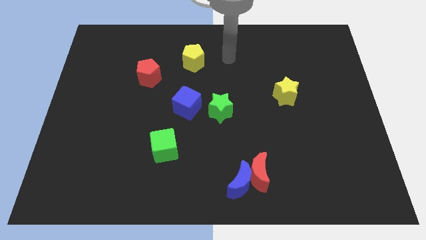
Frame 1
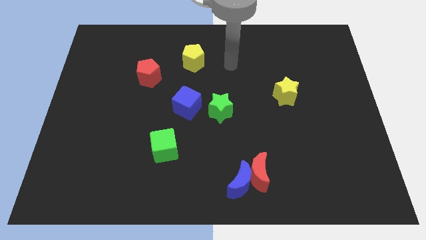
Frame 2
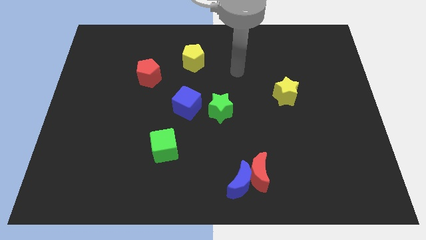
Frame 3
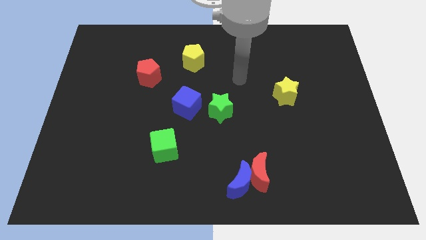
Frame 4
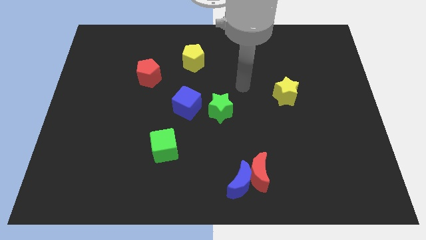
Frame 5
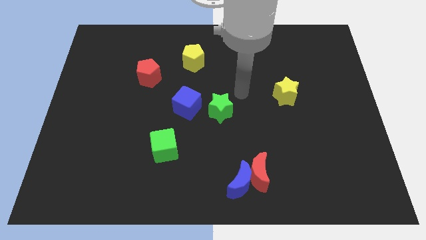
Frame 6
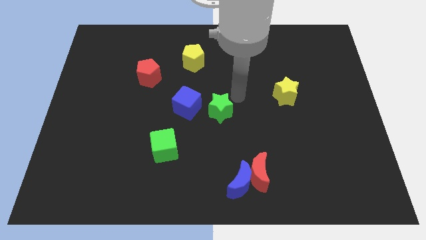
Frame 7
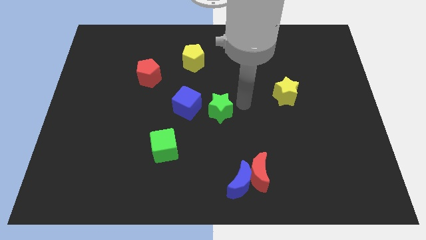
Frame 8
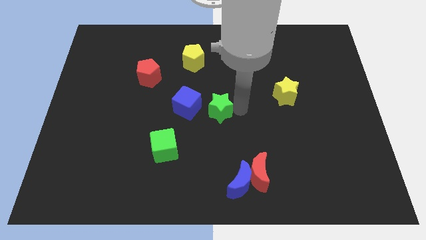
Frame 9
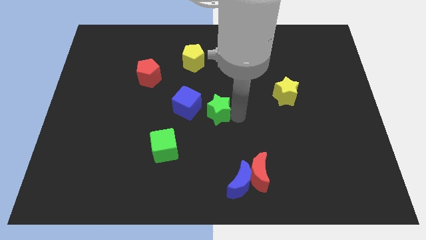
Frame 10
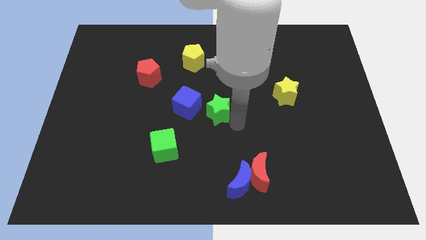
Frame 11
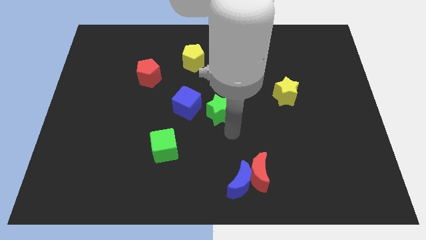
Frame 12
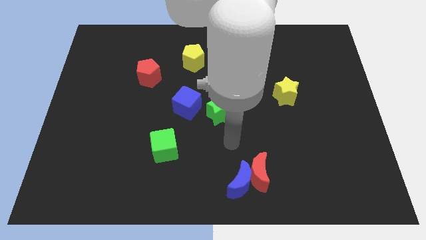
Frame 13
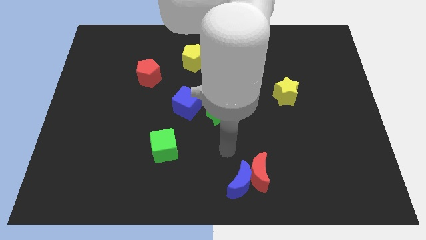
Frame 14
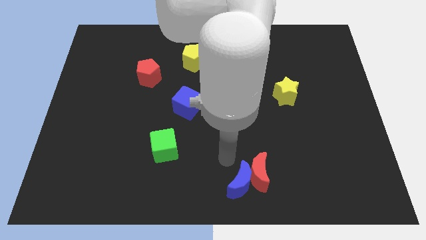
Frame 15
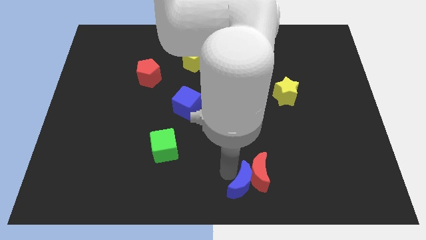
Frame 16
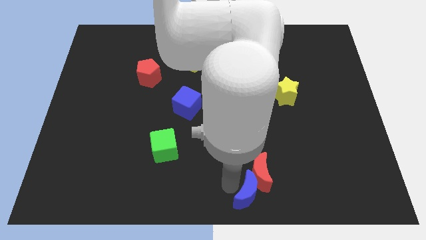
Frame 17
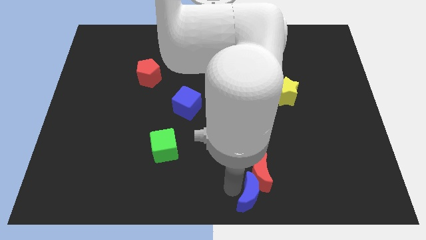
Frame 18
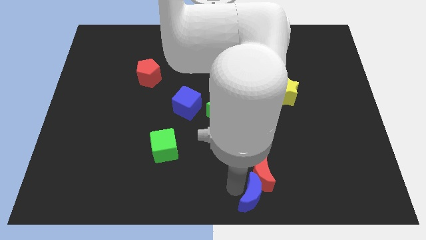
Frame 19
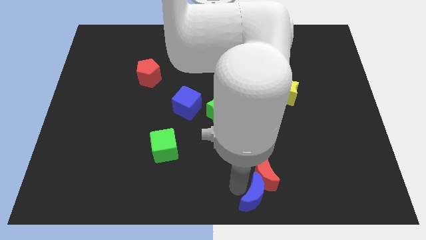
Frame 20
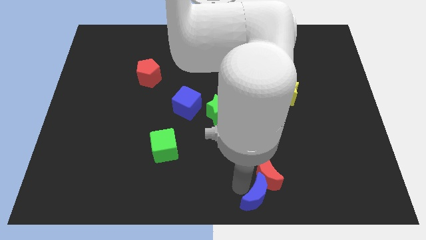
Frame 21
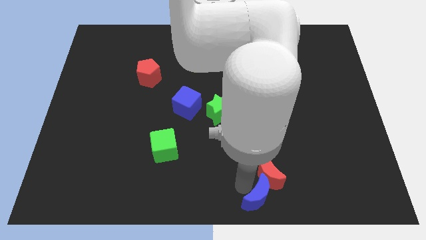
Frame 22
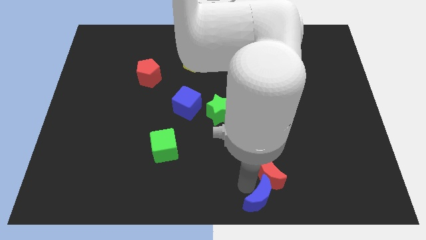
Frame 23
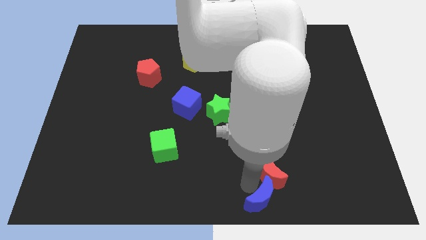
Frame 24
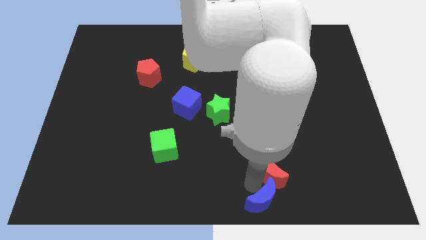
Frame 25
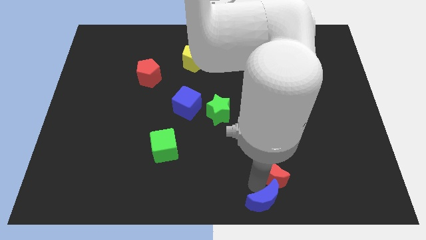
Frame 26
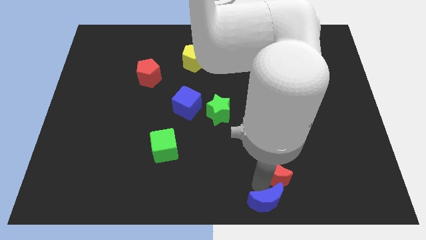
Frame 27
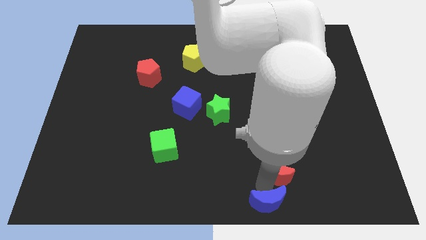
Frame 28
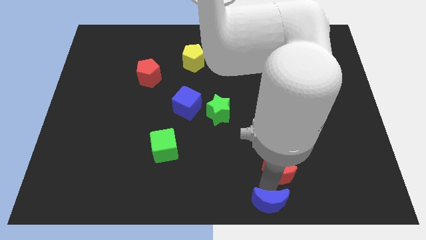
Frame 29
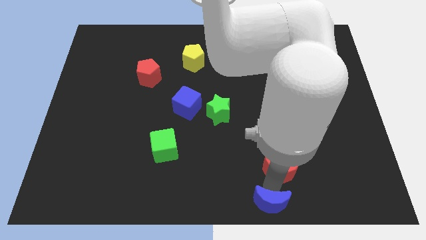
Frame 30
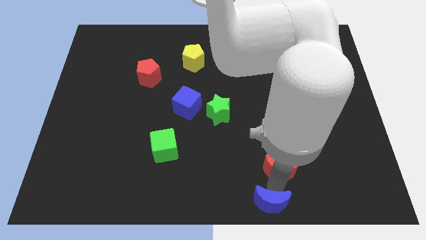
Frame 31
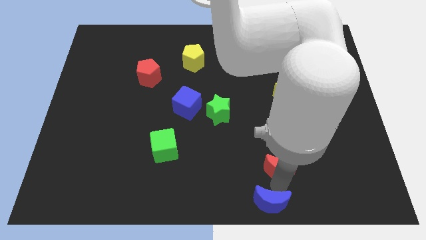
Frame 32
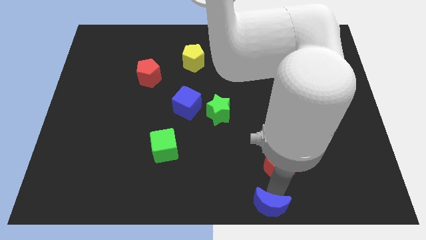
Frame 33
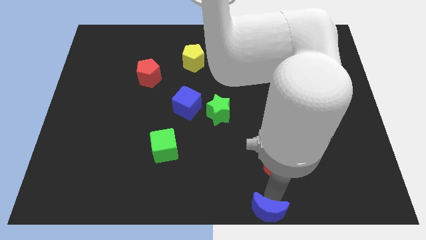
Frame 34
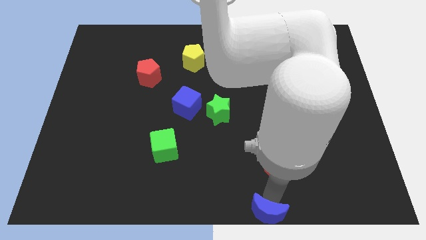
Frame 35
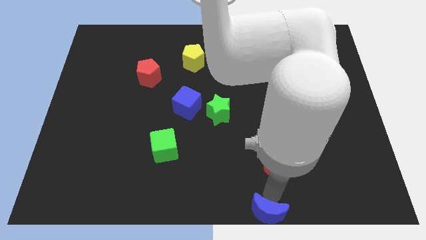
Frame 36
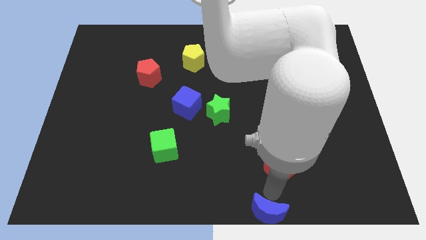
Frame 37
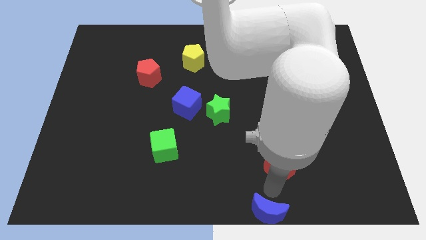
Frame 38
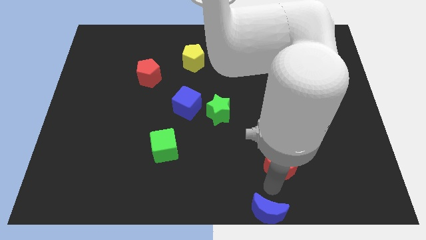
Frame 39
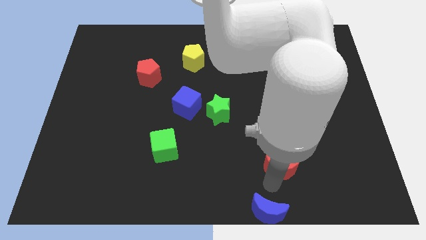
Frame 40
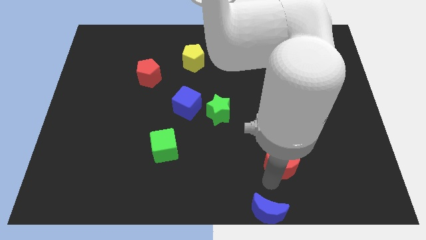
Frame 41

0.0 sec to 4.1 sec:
separate the red moon from the blue moon

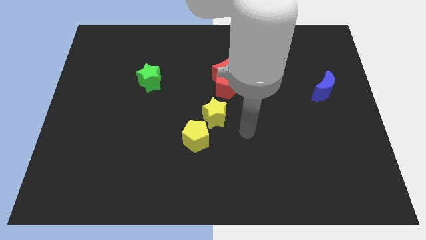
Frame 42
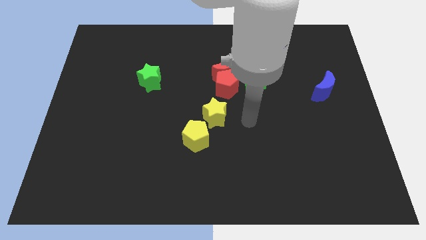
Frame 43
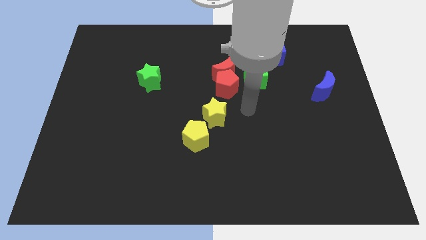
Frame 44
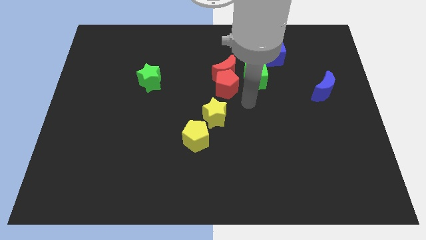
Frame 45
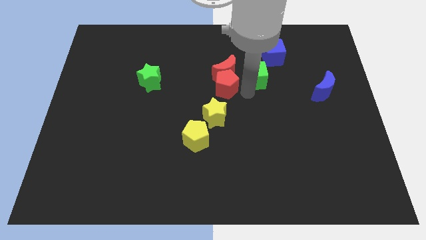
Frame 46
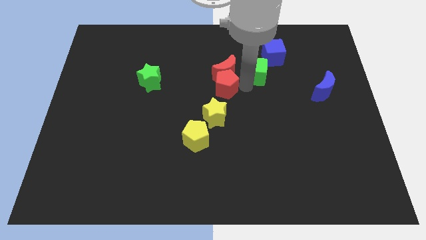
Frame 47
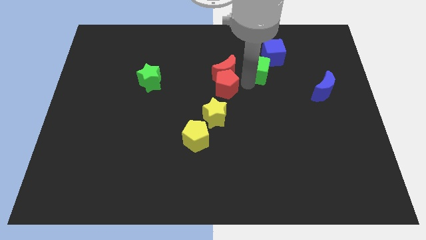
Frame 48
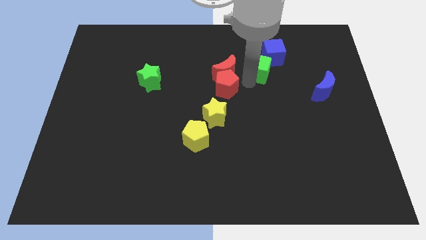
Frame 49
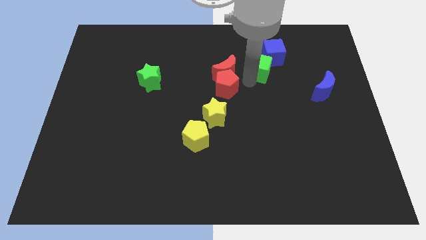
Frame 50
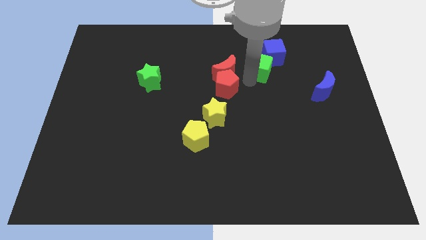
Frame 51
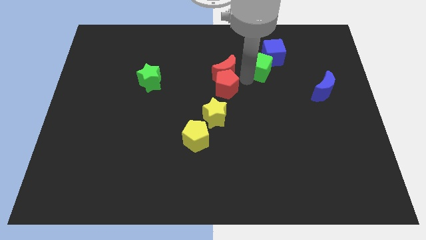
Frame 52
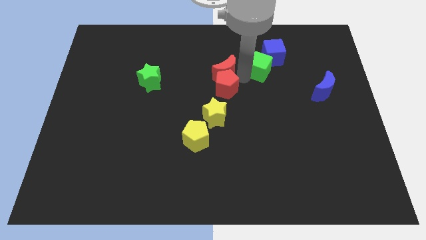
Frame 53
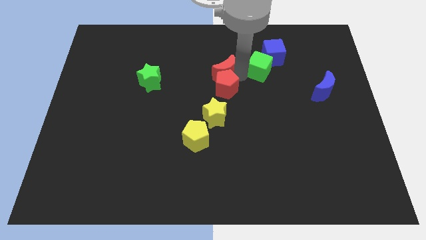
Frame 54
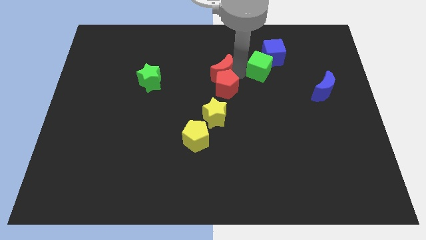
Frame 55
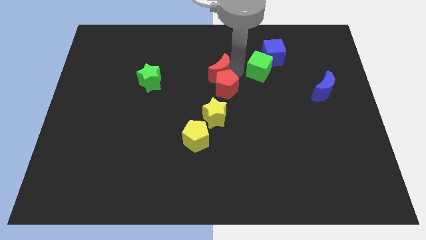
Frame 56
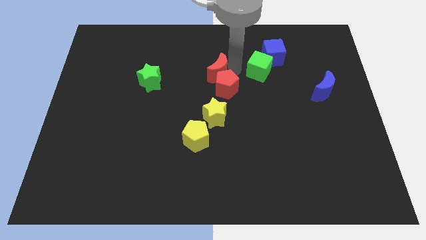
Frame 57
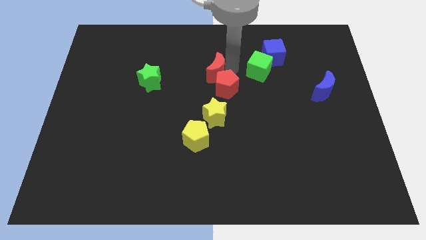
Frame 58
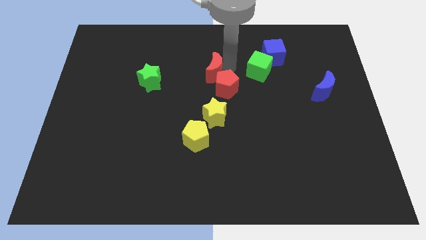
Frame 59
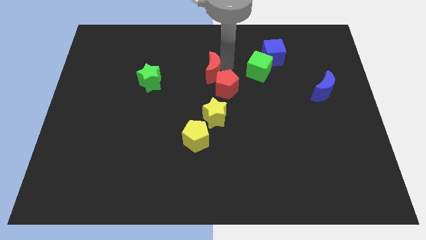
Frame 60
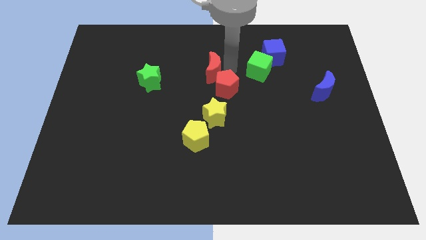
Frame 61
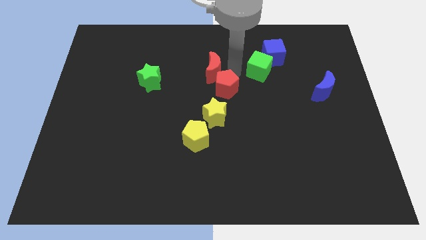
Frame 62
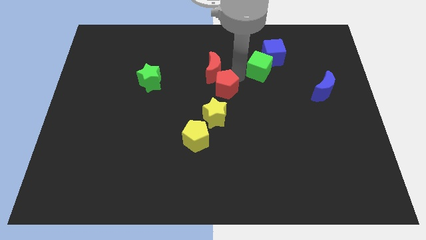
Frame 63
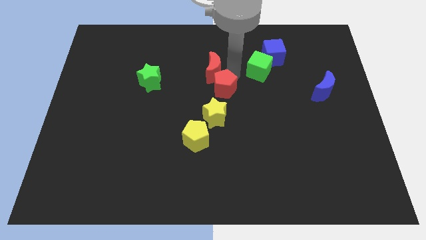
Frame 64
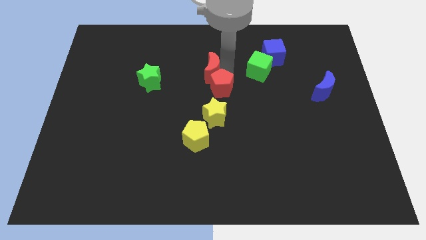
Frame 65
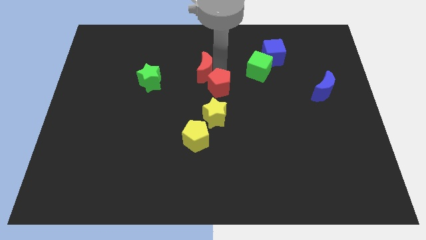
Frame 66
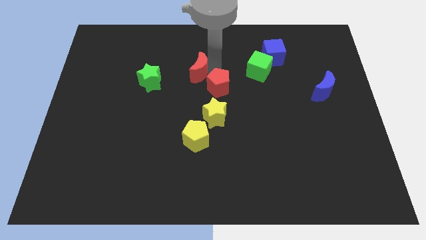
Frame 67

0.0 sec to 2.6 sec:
separate the red moon from the red pentagon and green cube

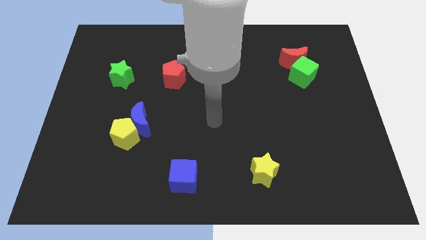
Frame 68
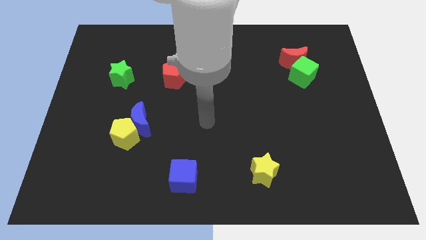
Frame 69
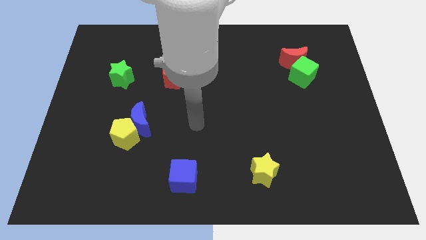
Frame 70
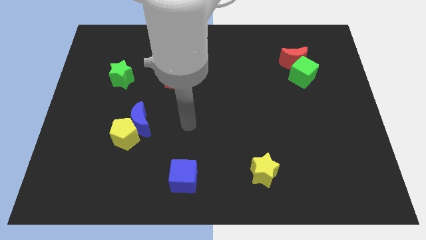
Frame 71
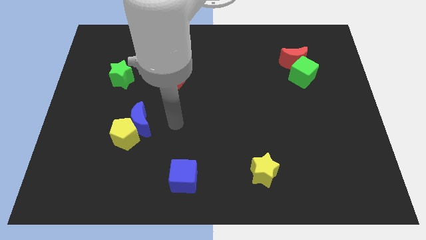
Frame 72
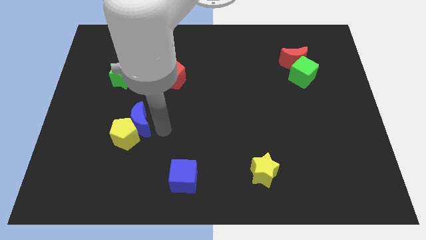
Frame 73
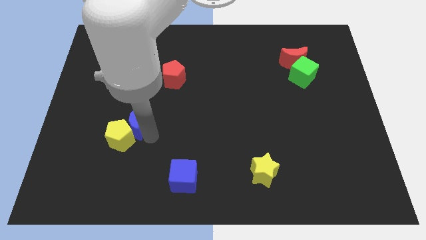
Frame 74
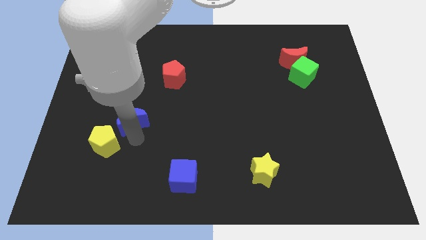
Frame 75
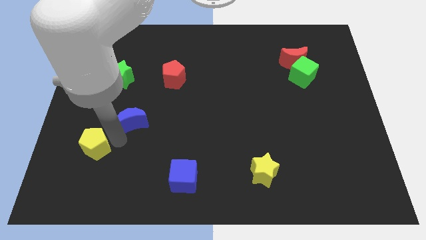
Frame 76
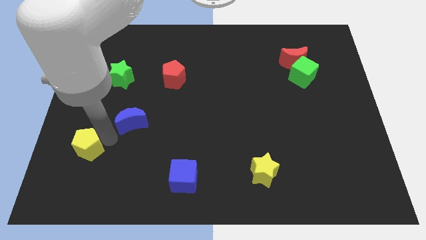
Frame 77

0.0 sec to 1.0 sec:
separate the blue moon from the yellow pentagon

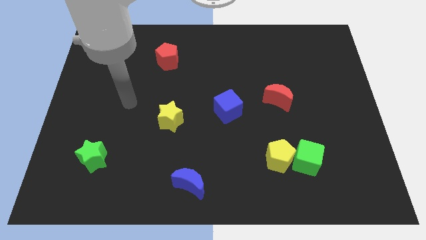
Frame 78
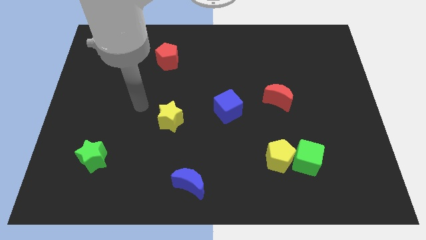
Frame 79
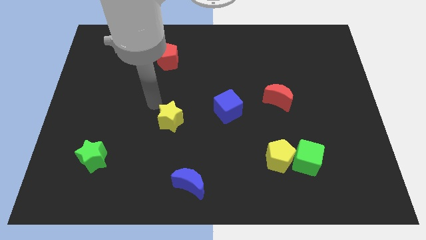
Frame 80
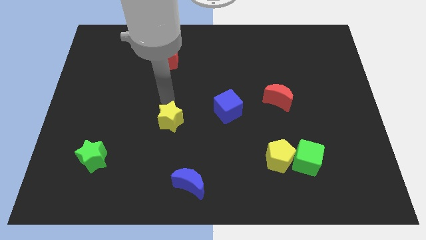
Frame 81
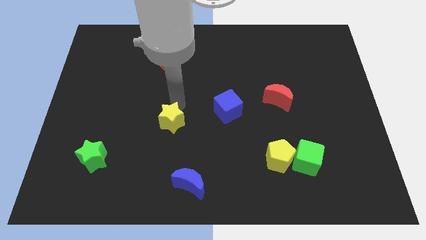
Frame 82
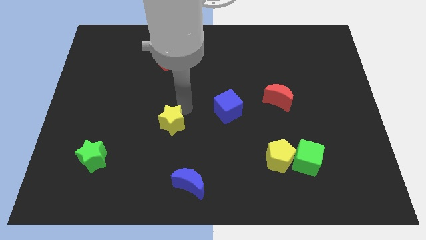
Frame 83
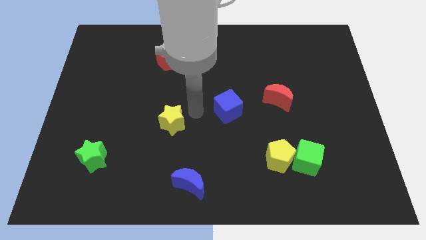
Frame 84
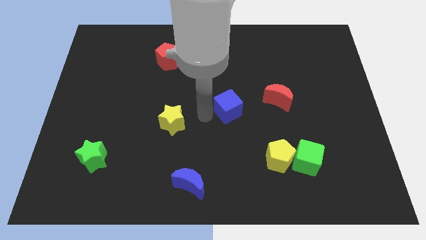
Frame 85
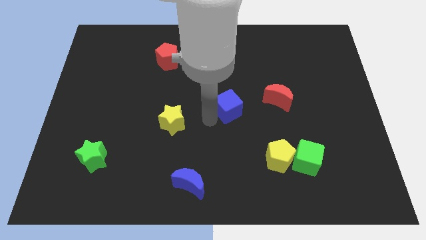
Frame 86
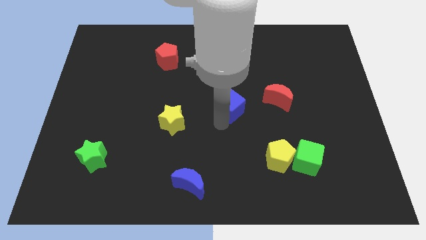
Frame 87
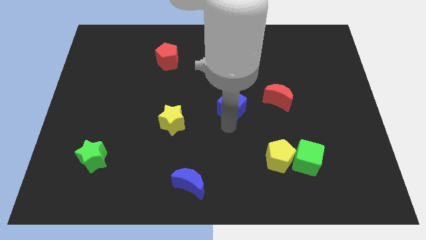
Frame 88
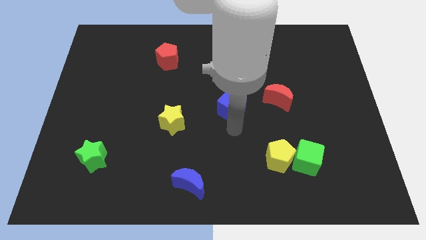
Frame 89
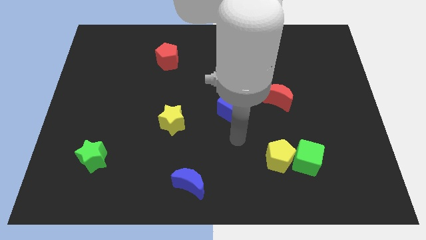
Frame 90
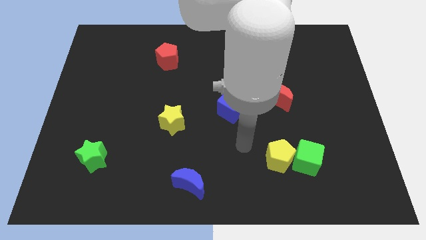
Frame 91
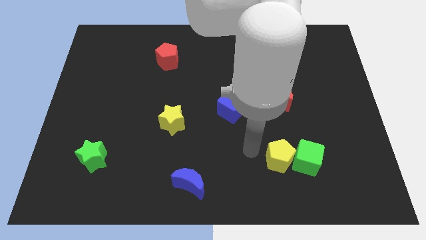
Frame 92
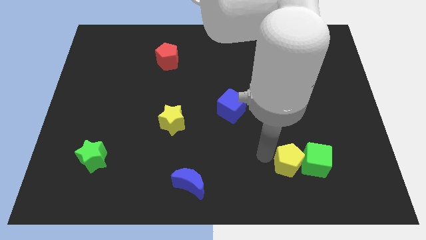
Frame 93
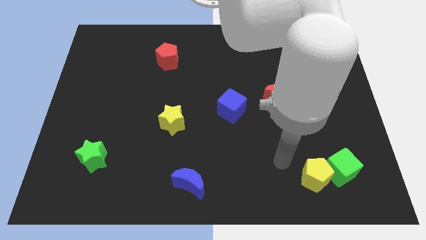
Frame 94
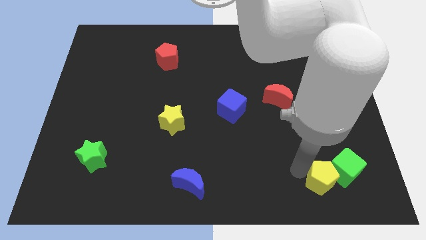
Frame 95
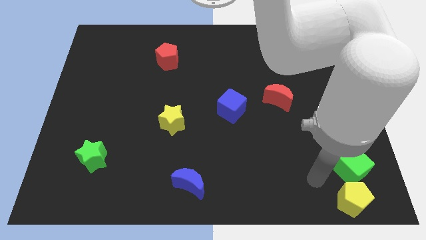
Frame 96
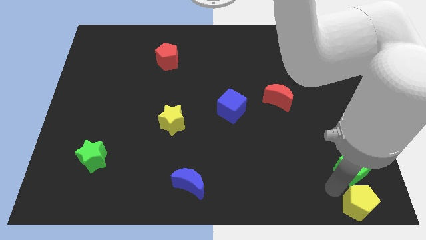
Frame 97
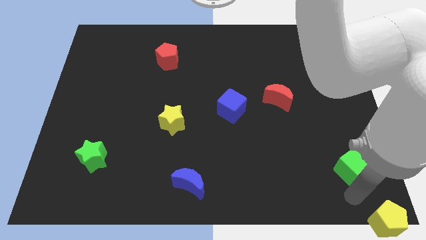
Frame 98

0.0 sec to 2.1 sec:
pull the green cube apart from the yellow pentagon
